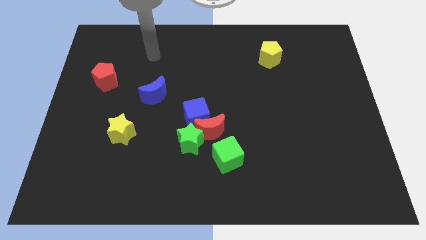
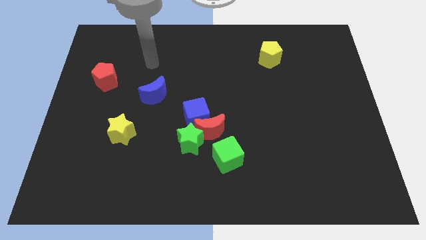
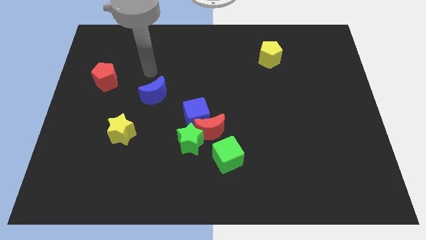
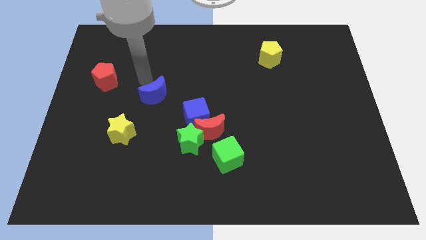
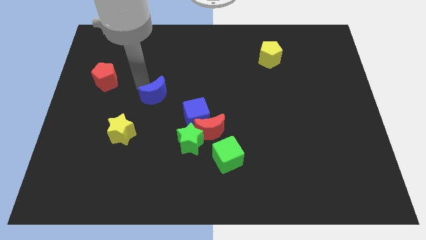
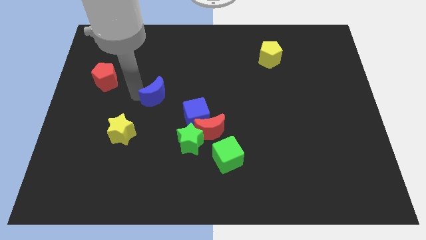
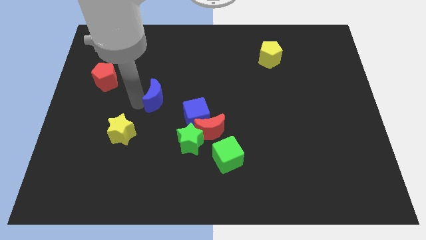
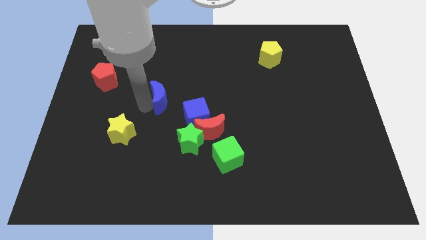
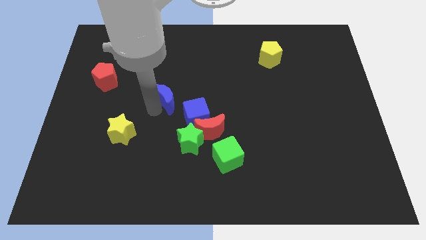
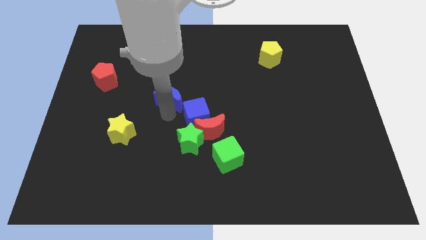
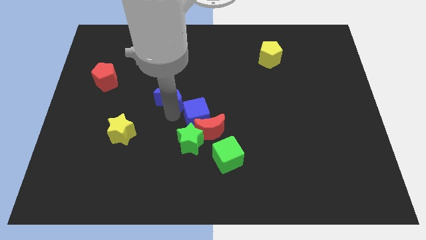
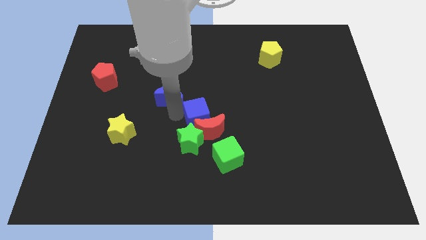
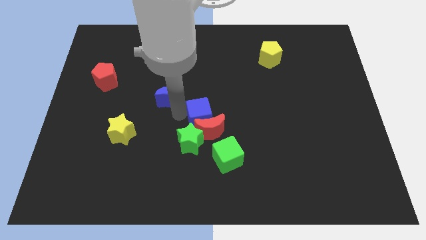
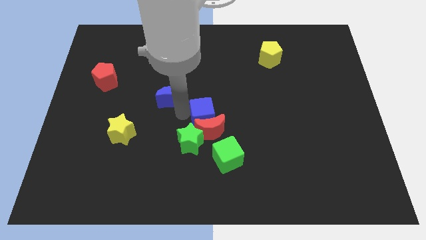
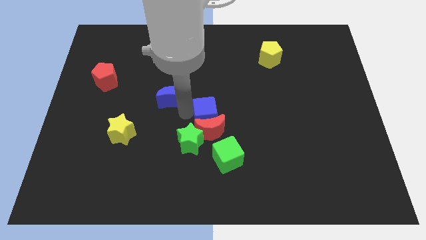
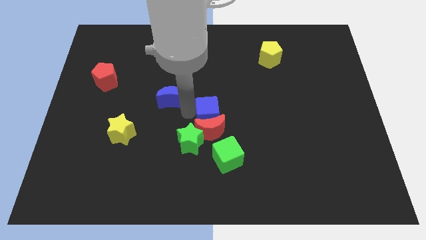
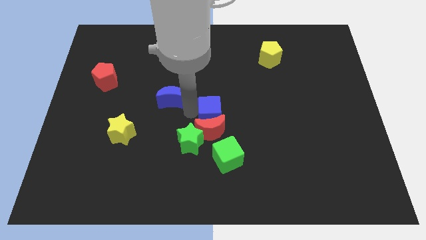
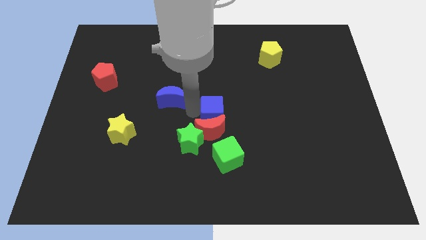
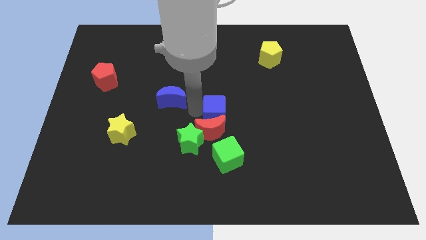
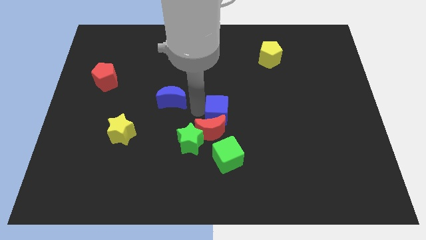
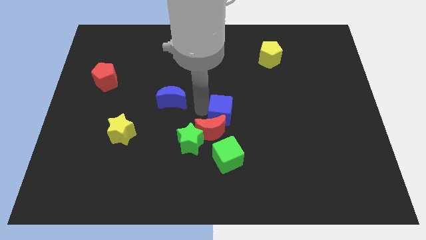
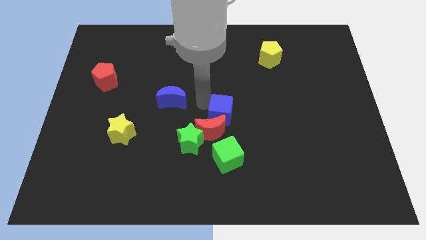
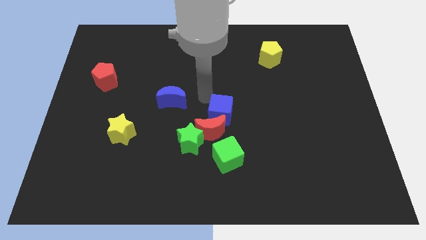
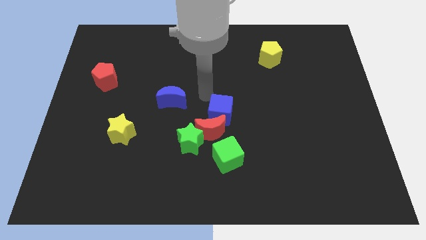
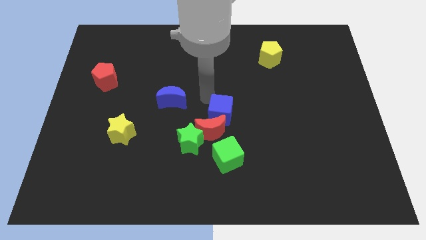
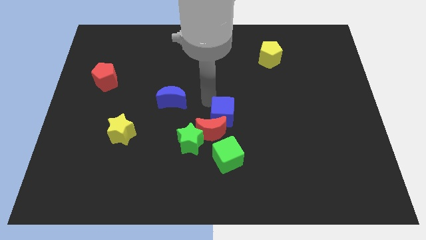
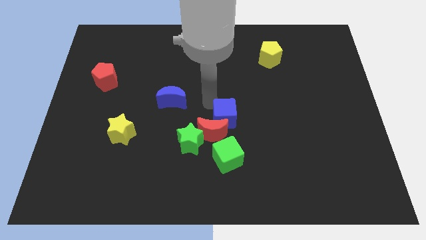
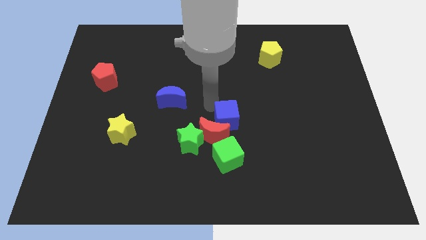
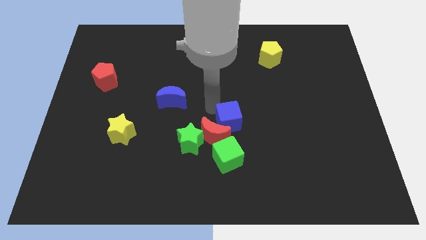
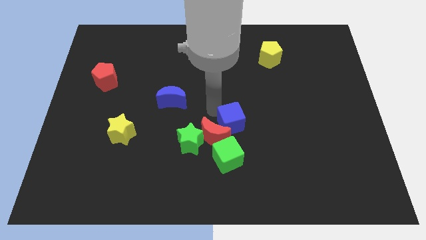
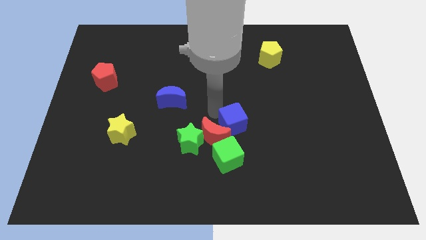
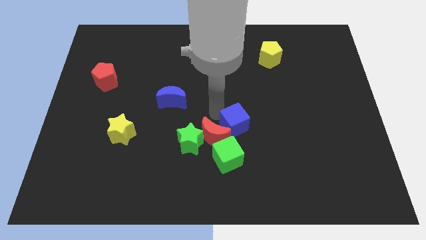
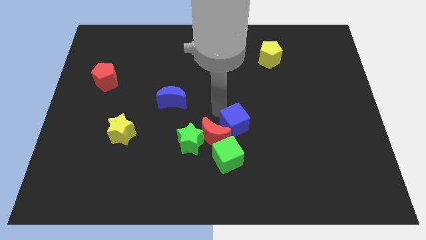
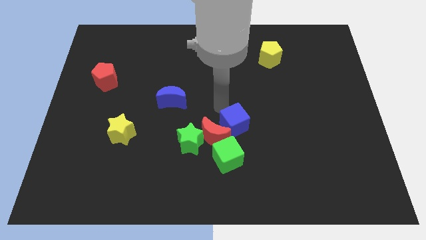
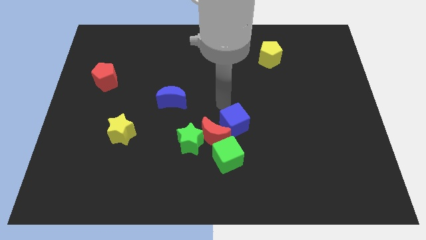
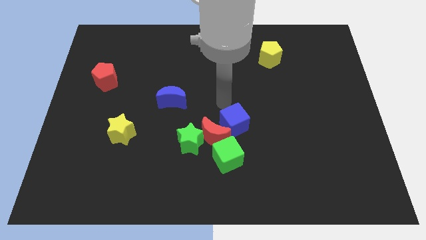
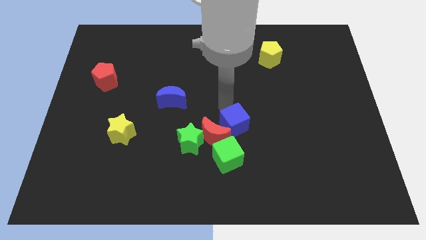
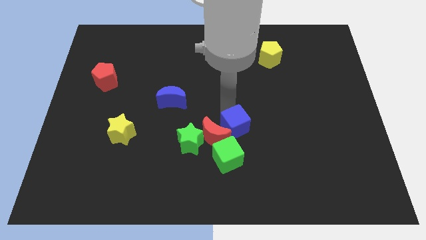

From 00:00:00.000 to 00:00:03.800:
move the blue cube somewhat down and right diagonally

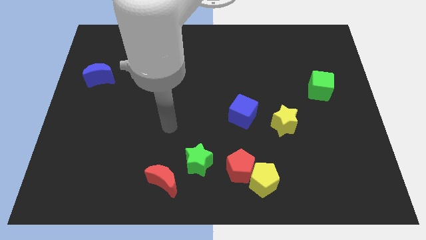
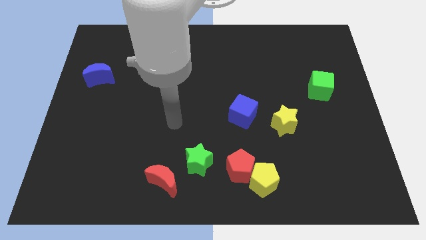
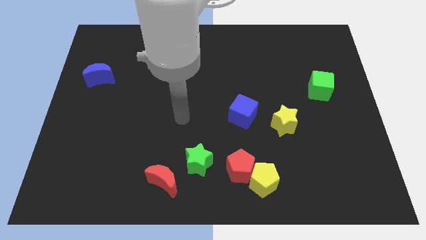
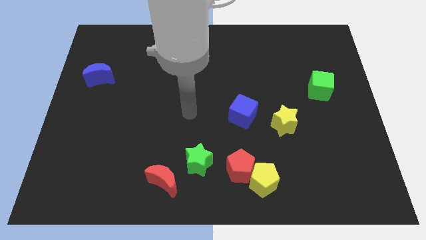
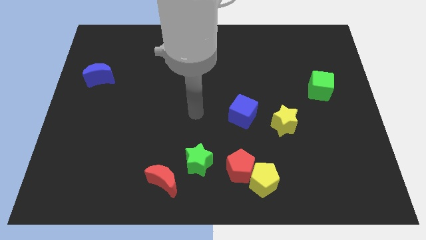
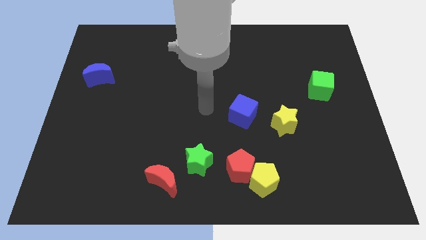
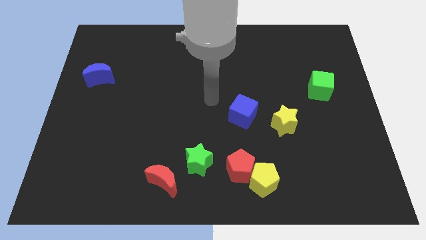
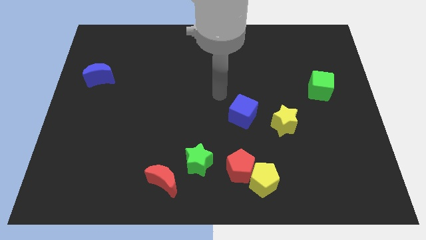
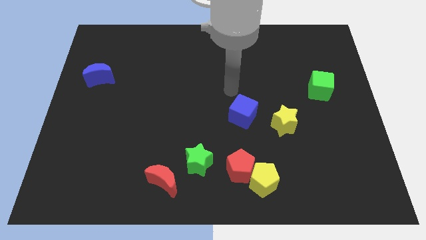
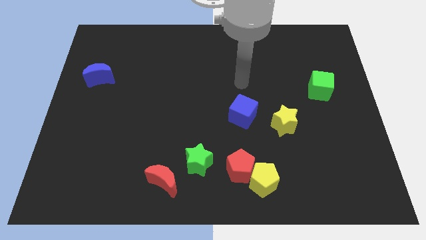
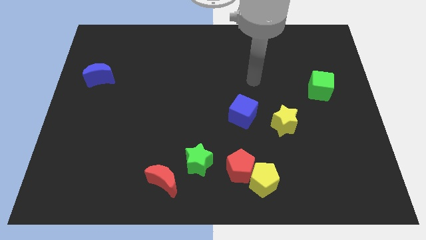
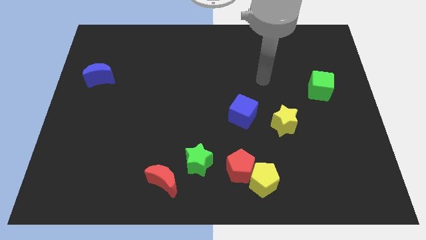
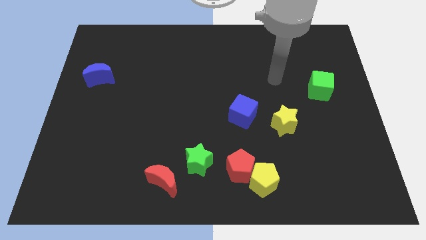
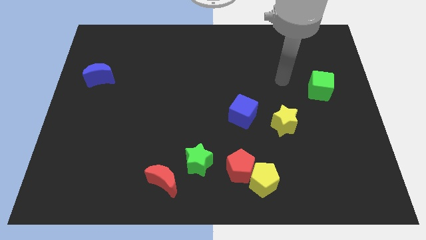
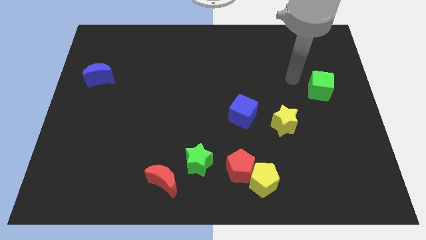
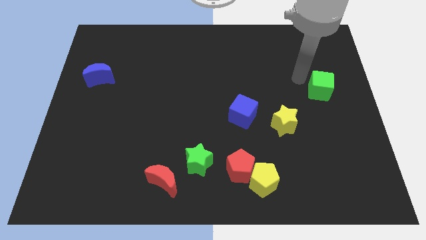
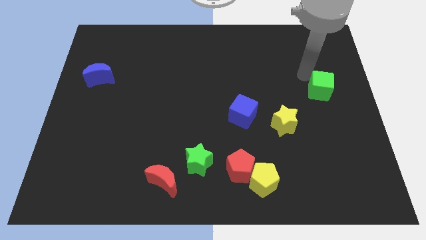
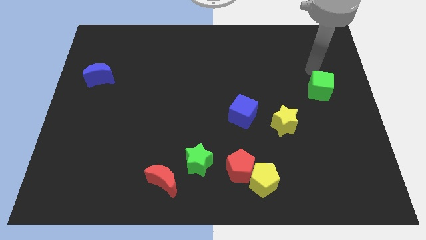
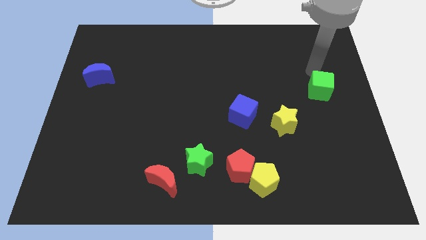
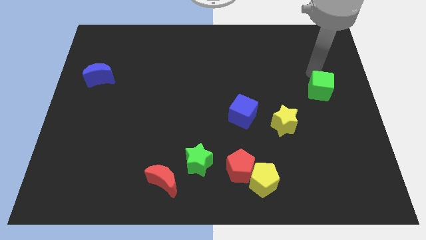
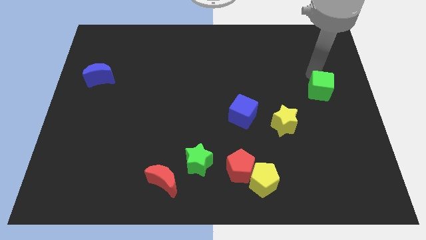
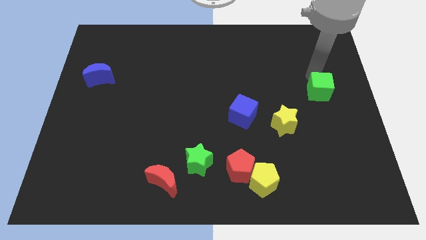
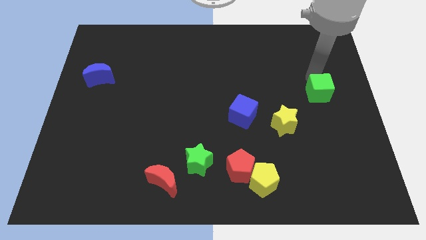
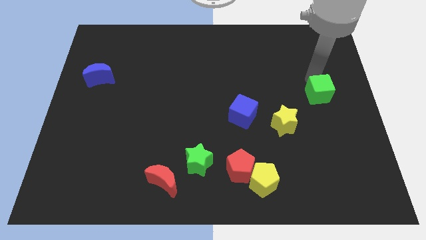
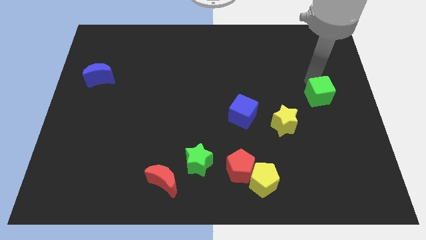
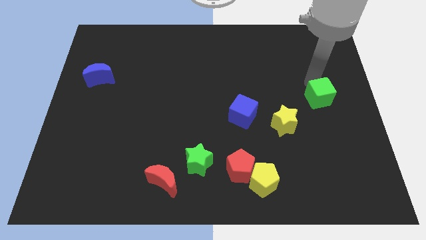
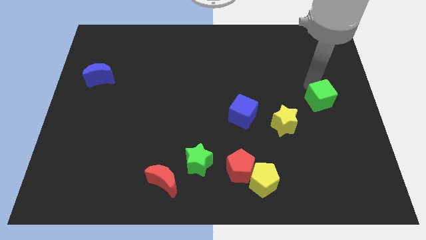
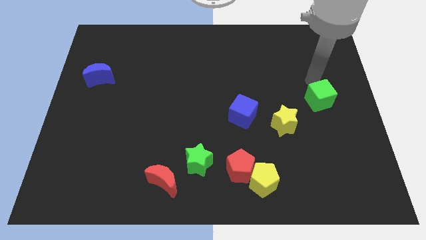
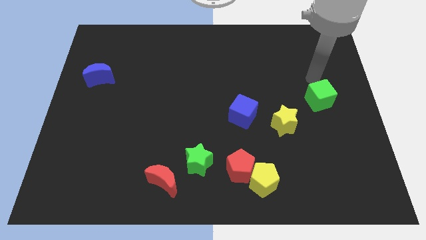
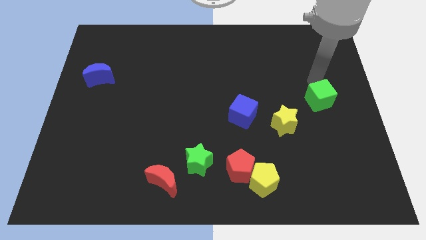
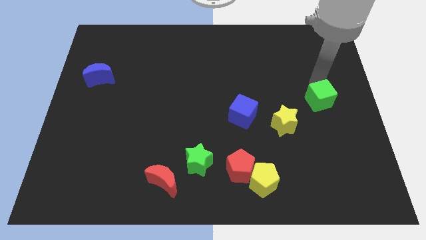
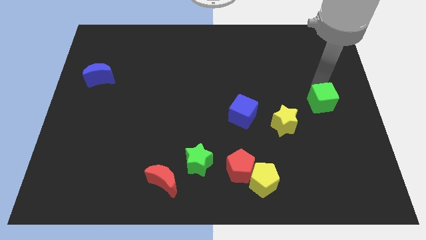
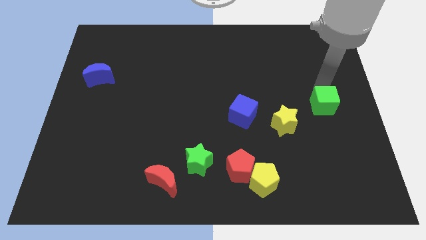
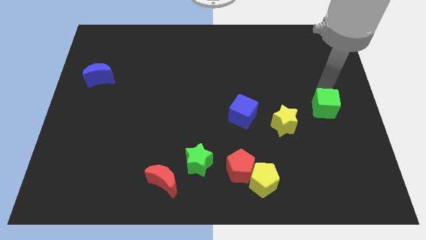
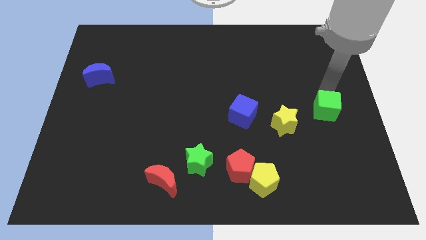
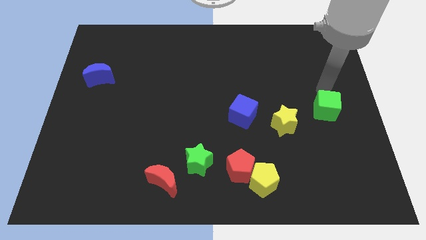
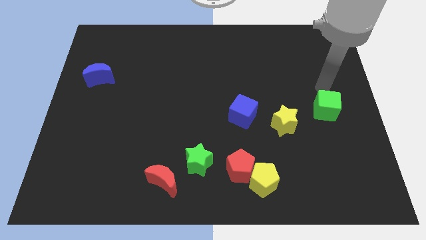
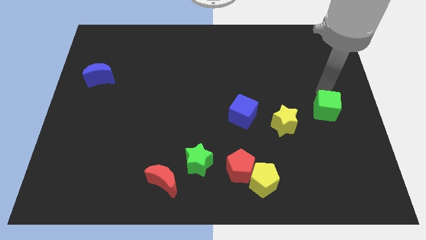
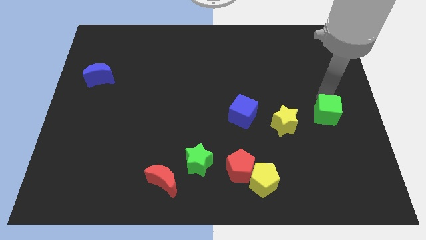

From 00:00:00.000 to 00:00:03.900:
slide the green cube downwards a bit

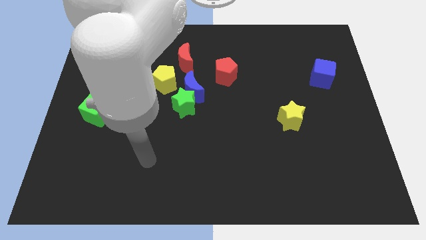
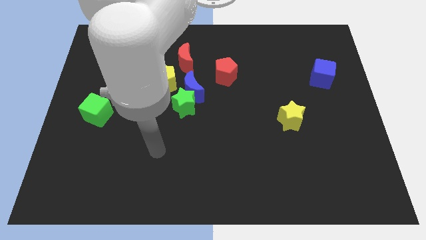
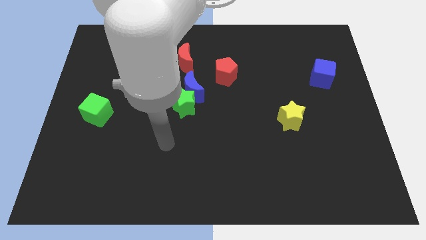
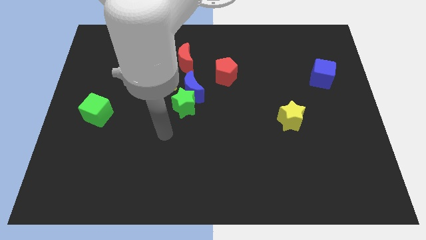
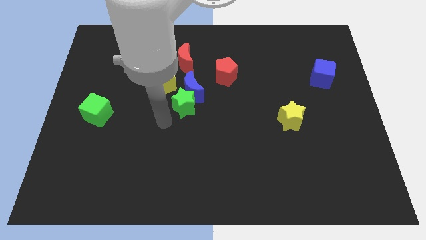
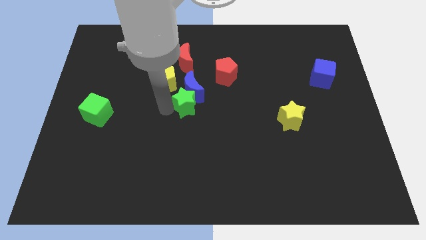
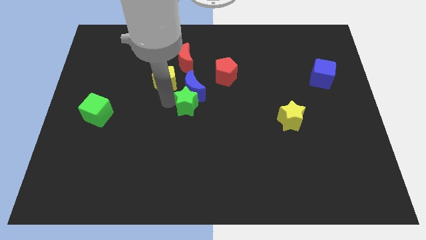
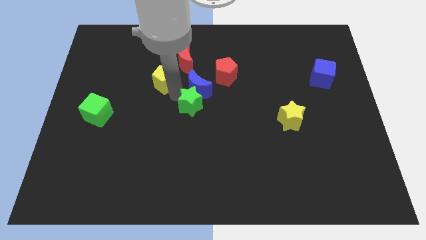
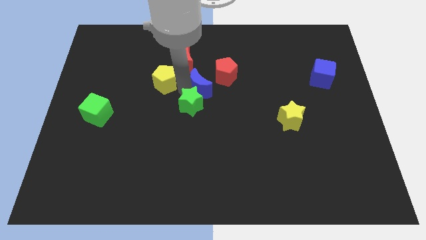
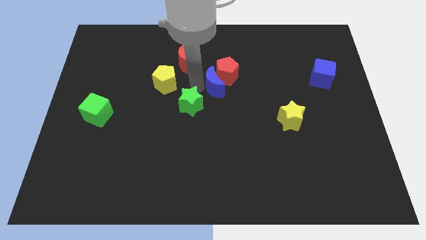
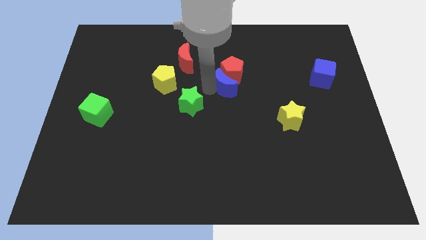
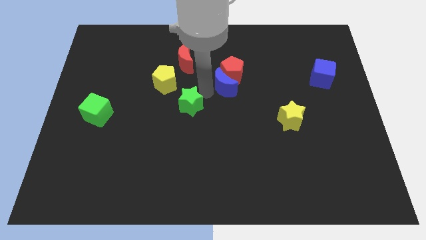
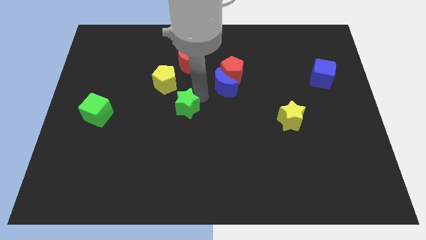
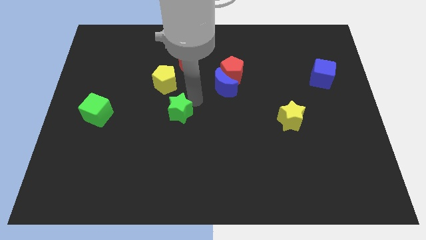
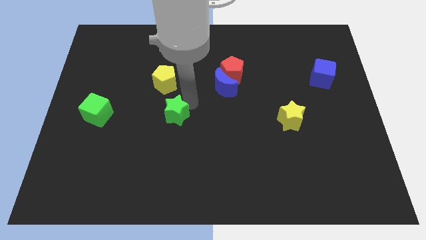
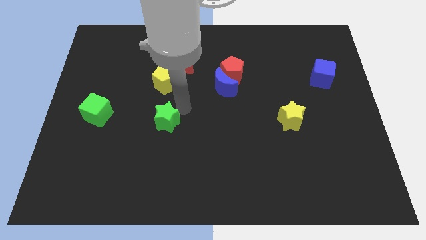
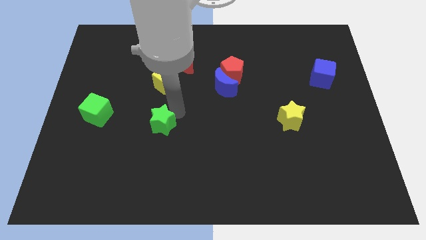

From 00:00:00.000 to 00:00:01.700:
move the green star somewhat downwards and to the left diagonally
